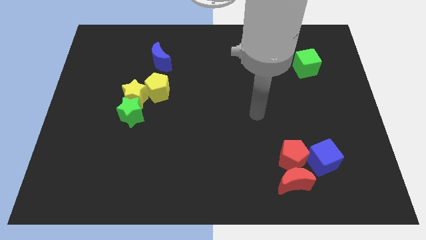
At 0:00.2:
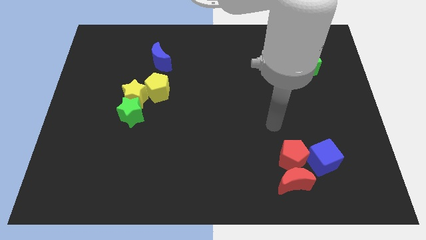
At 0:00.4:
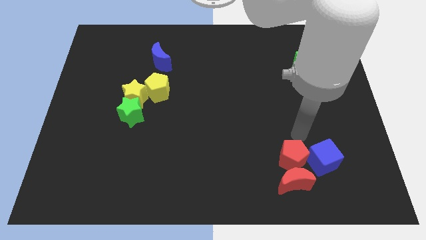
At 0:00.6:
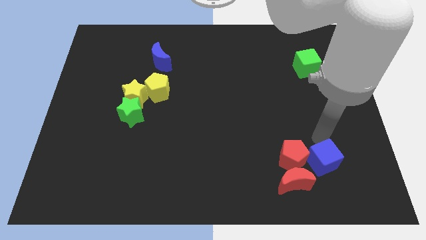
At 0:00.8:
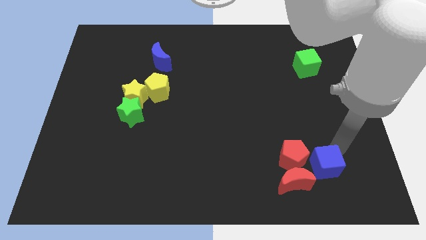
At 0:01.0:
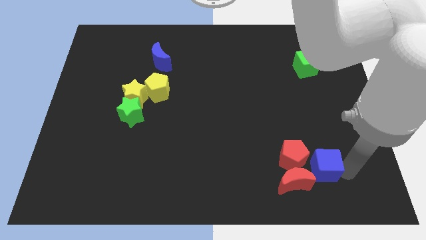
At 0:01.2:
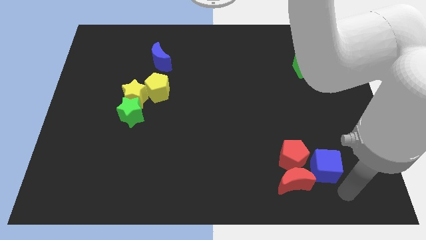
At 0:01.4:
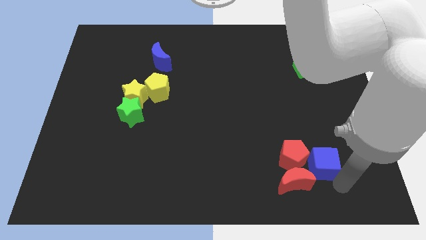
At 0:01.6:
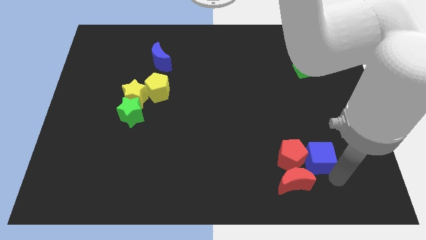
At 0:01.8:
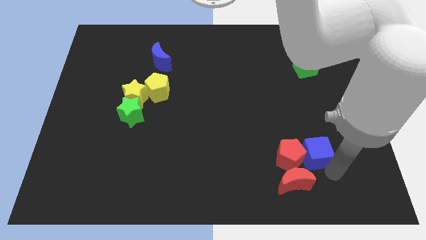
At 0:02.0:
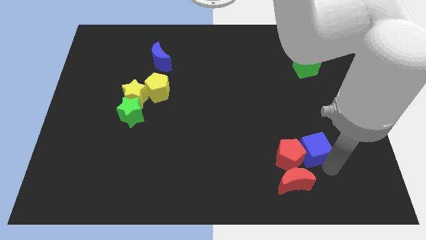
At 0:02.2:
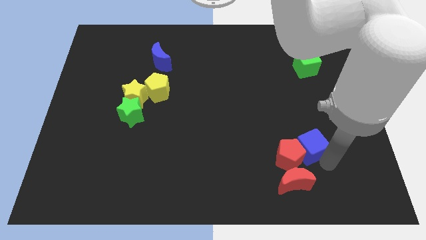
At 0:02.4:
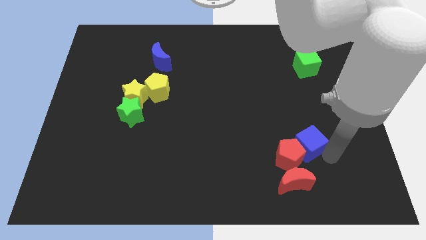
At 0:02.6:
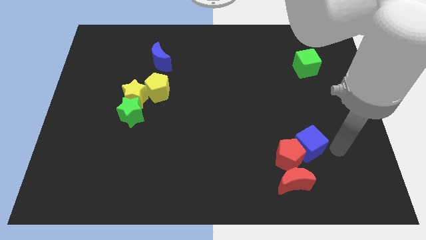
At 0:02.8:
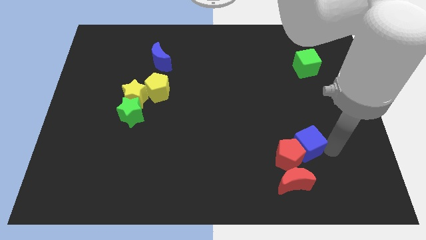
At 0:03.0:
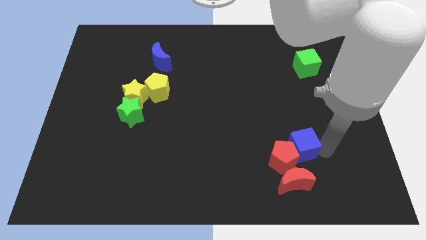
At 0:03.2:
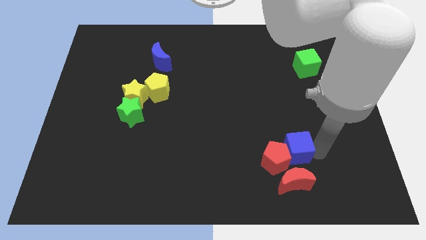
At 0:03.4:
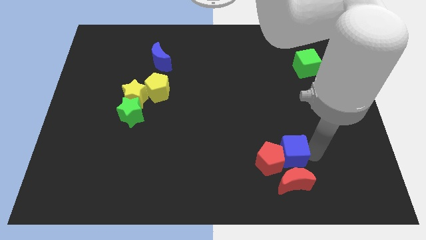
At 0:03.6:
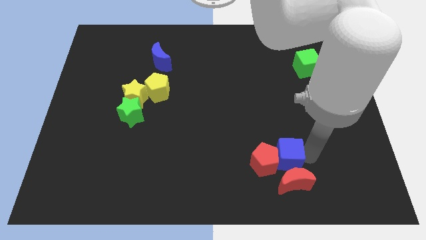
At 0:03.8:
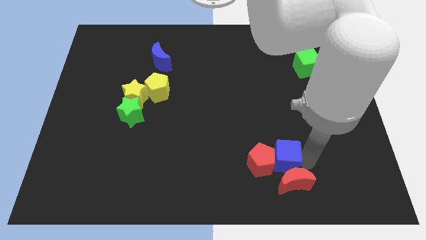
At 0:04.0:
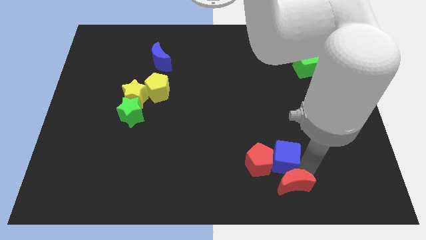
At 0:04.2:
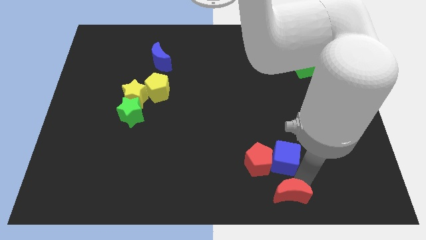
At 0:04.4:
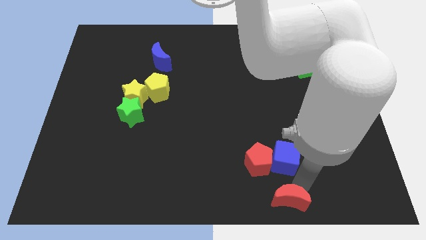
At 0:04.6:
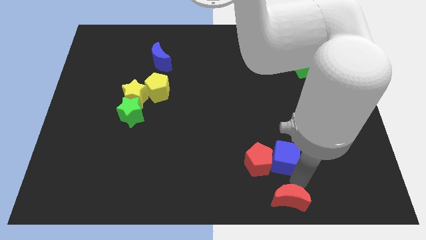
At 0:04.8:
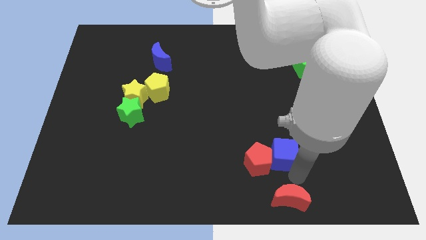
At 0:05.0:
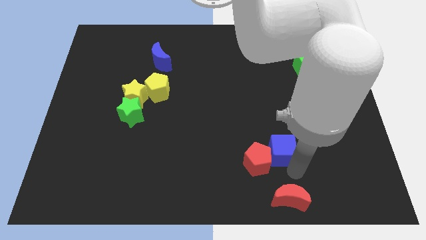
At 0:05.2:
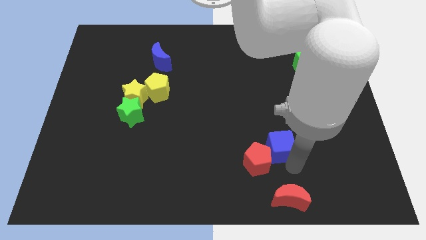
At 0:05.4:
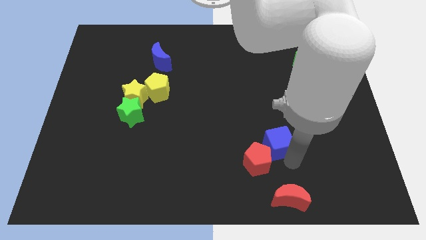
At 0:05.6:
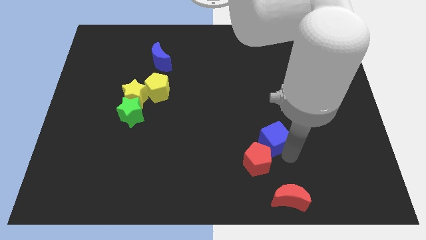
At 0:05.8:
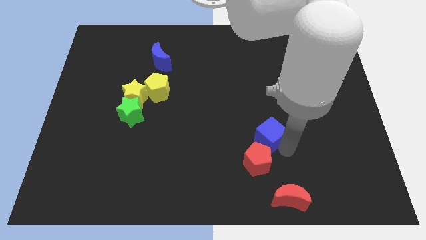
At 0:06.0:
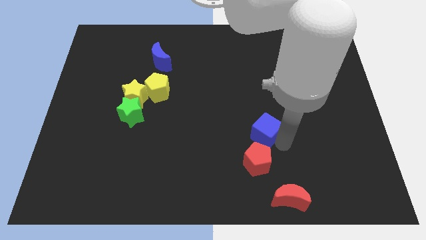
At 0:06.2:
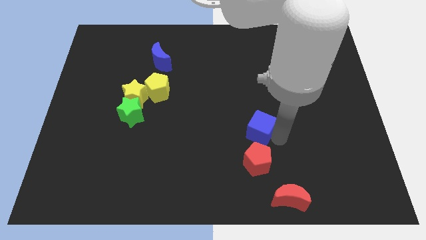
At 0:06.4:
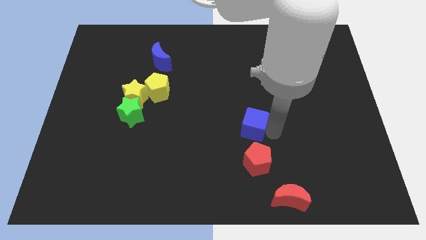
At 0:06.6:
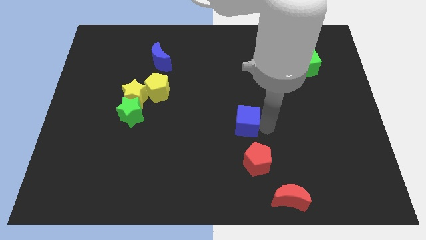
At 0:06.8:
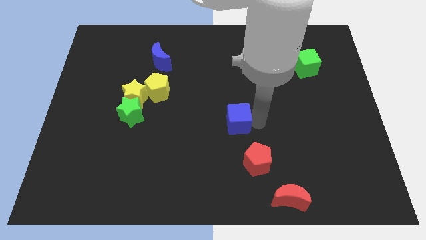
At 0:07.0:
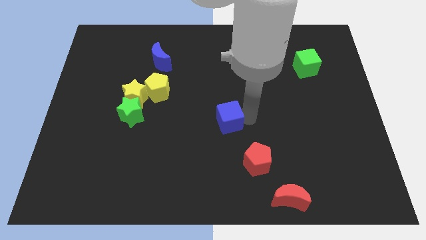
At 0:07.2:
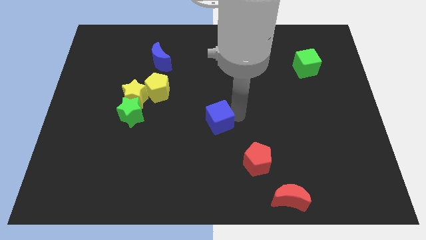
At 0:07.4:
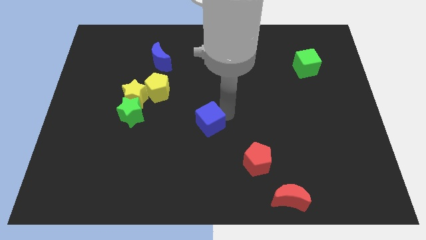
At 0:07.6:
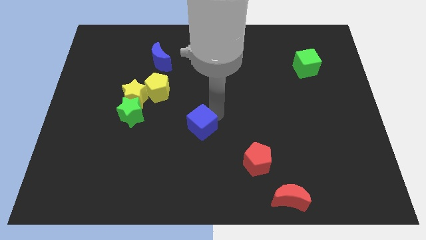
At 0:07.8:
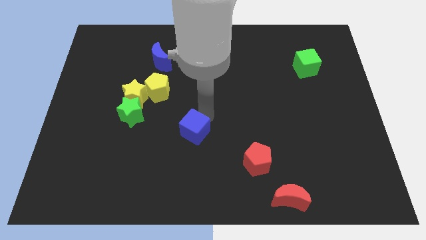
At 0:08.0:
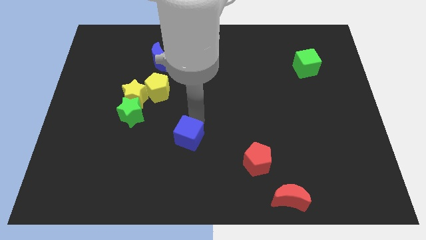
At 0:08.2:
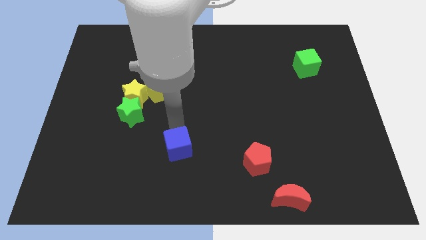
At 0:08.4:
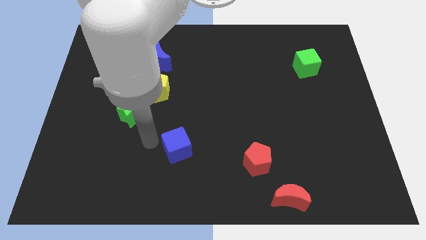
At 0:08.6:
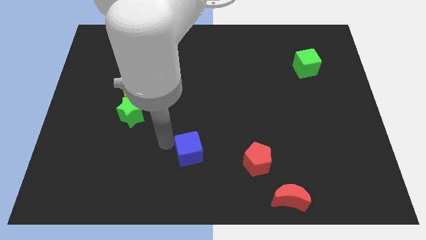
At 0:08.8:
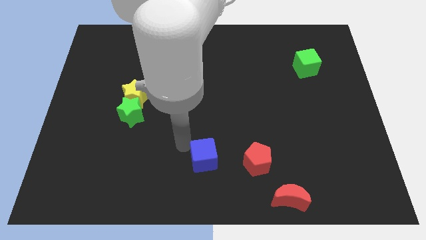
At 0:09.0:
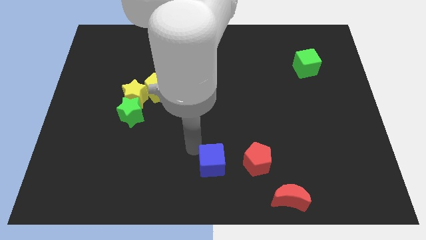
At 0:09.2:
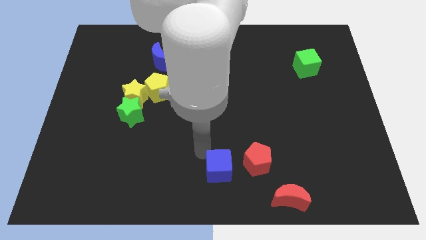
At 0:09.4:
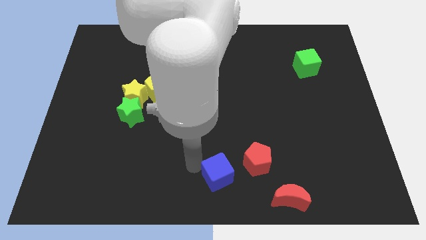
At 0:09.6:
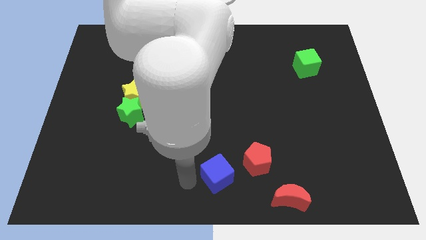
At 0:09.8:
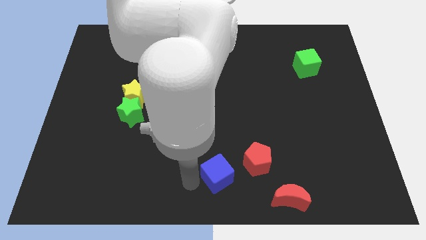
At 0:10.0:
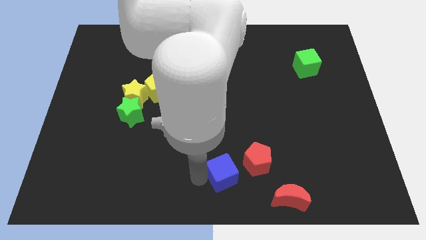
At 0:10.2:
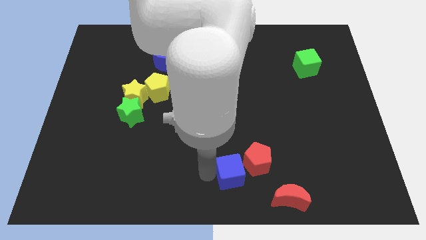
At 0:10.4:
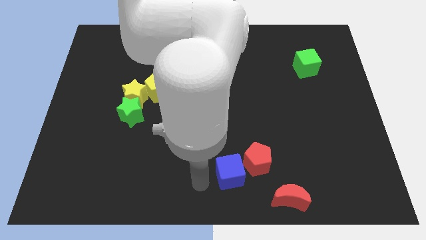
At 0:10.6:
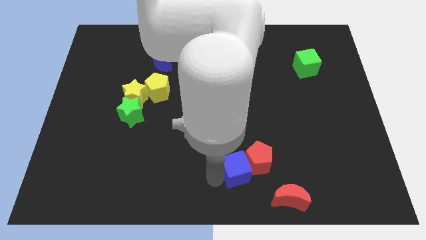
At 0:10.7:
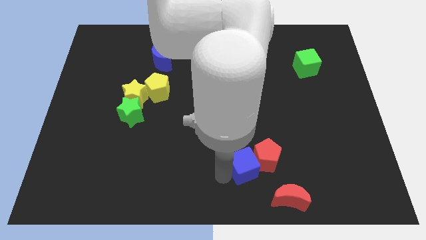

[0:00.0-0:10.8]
push the blue cube to the bottom left of the red pentagon

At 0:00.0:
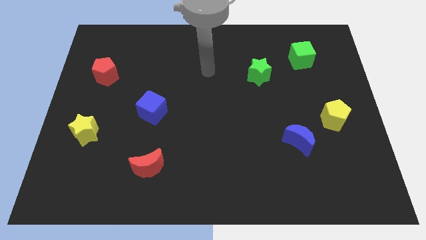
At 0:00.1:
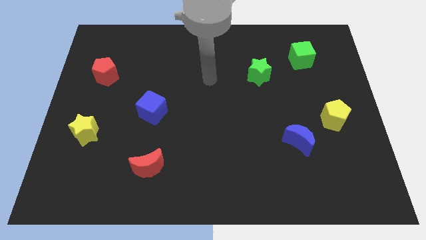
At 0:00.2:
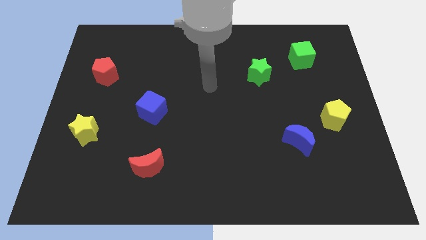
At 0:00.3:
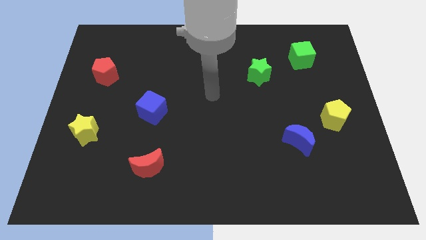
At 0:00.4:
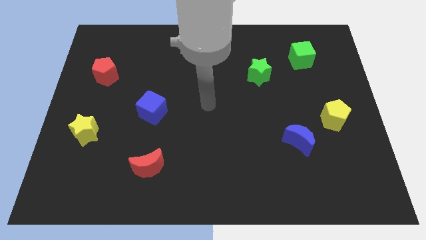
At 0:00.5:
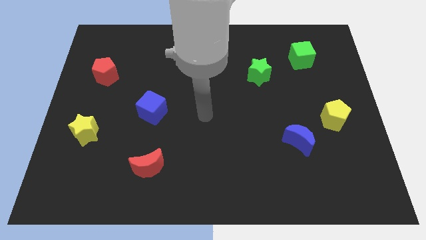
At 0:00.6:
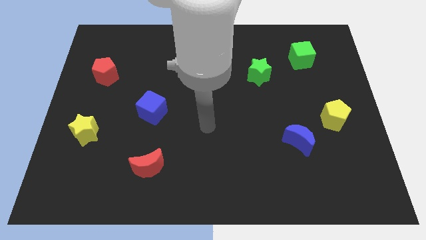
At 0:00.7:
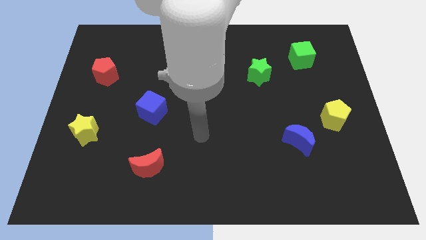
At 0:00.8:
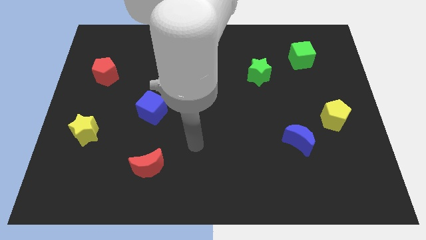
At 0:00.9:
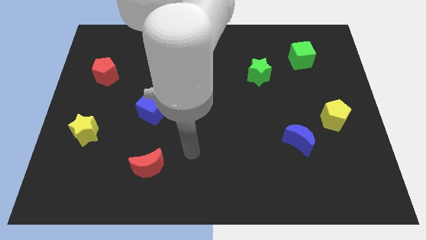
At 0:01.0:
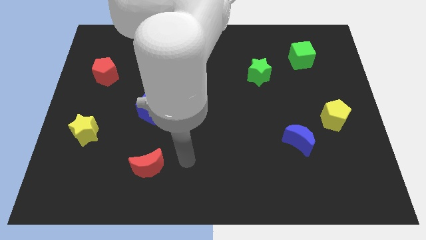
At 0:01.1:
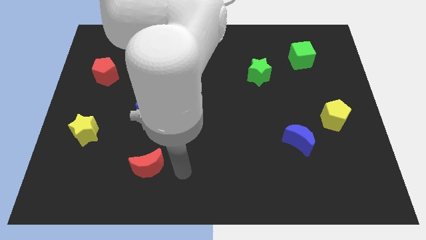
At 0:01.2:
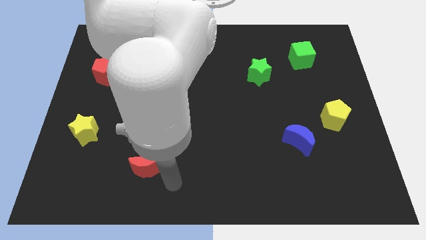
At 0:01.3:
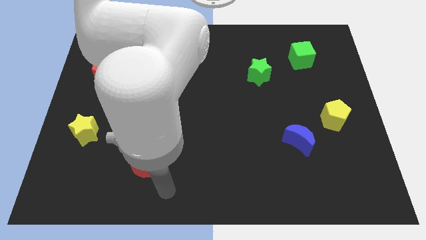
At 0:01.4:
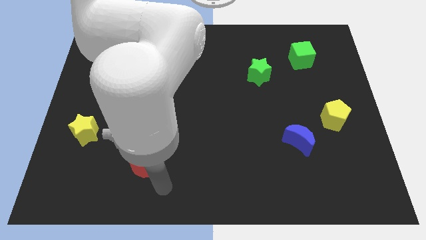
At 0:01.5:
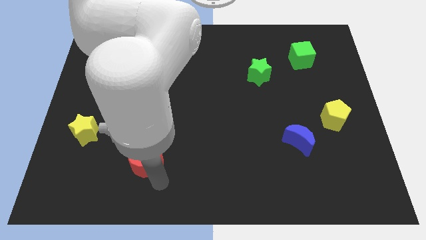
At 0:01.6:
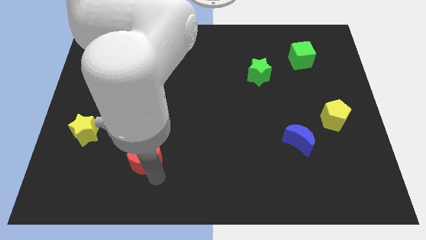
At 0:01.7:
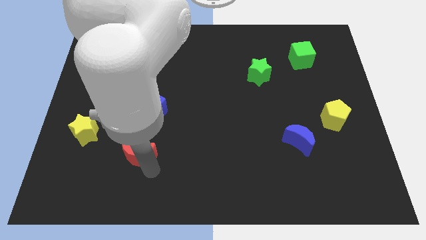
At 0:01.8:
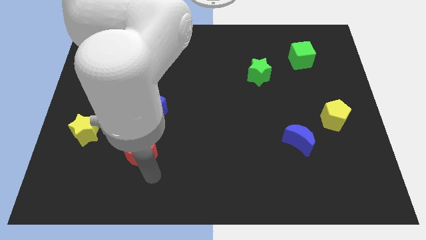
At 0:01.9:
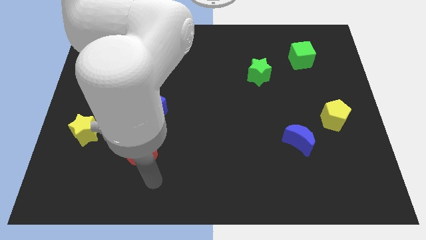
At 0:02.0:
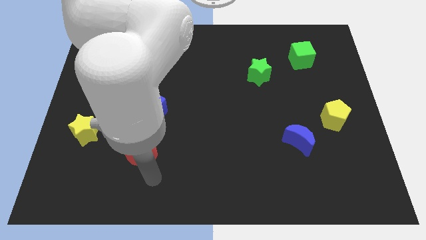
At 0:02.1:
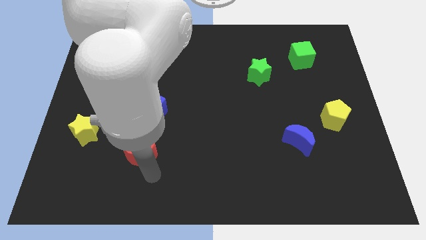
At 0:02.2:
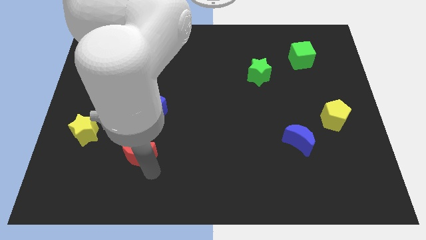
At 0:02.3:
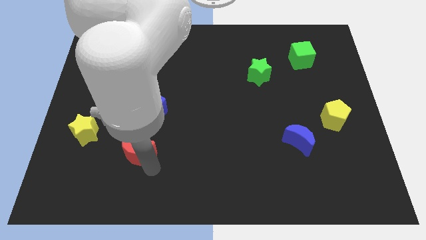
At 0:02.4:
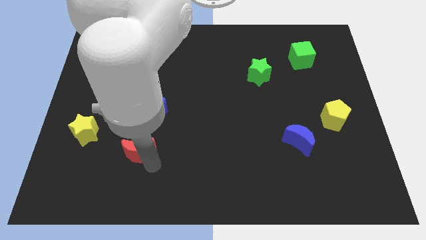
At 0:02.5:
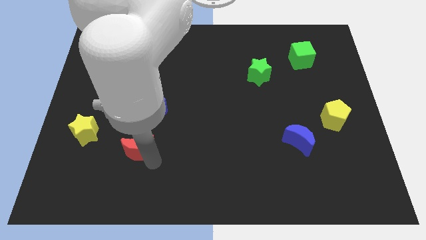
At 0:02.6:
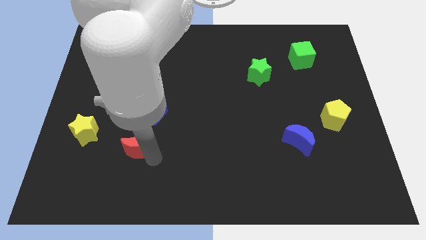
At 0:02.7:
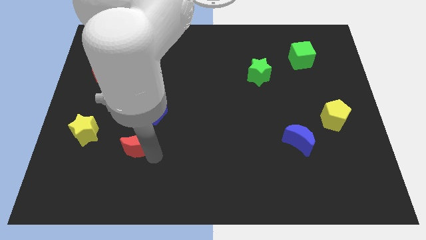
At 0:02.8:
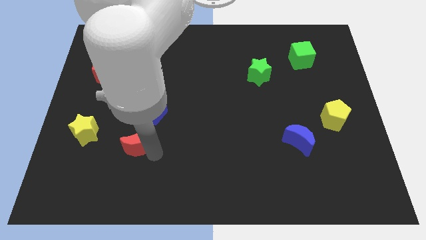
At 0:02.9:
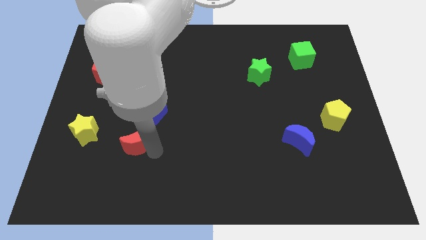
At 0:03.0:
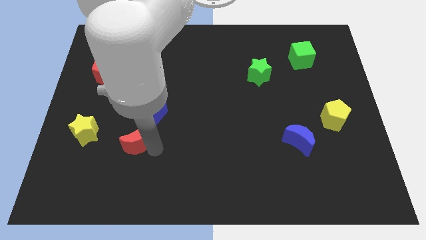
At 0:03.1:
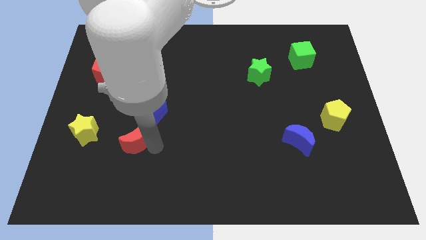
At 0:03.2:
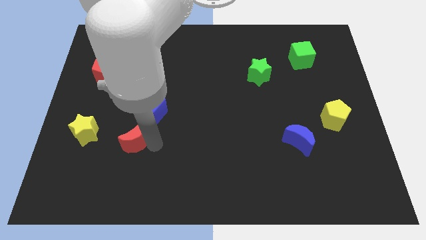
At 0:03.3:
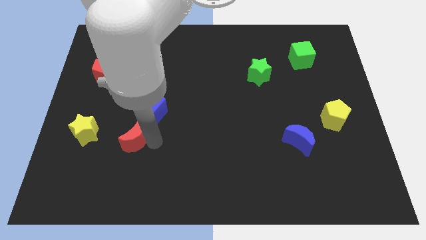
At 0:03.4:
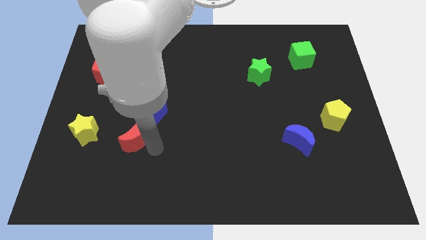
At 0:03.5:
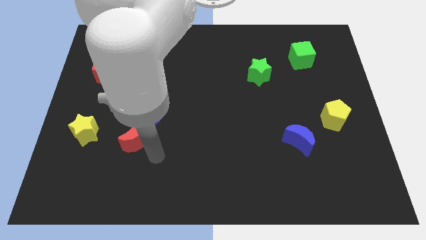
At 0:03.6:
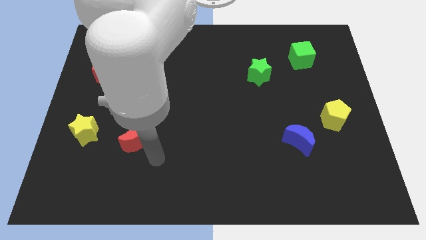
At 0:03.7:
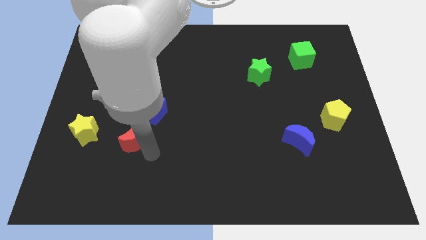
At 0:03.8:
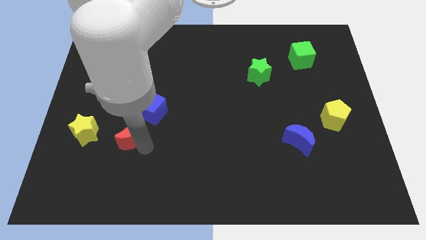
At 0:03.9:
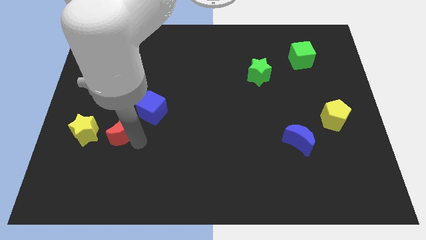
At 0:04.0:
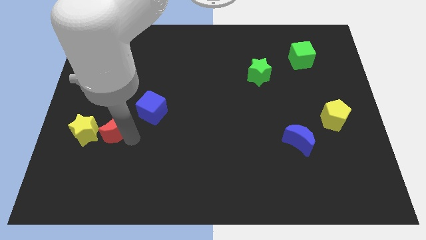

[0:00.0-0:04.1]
push the red moon to the top right of the yellow star
